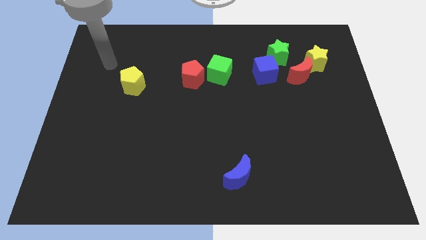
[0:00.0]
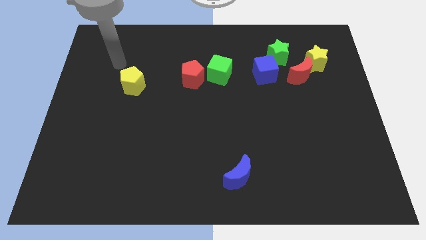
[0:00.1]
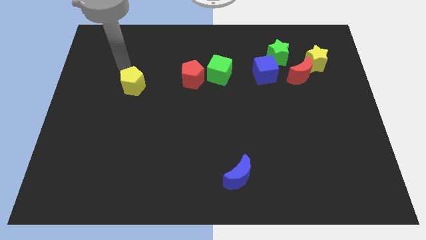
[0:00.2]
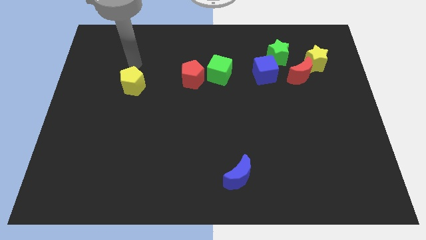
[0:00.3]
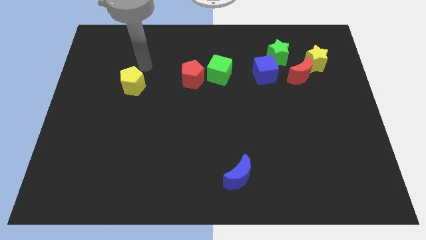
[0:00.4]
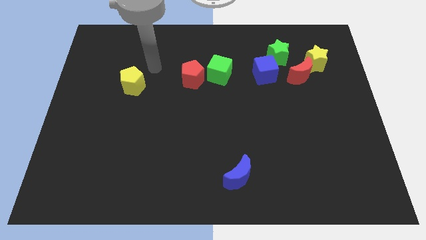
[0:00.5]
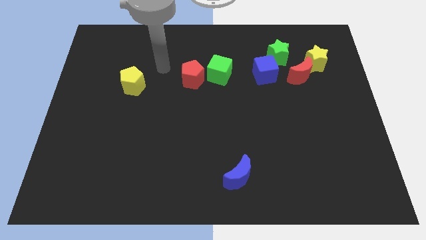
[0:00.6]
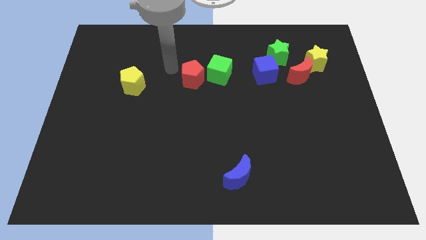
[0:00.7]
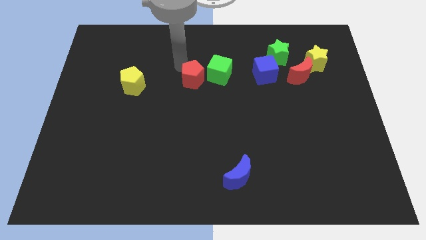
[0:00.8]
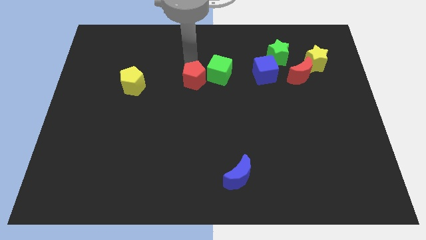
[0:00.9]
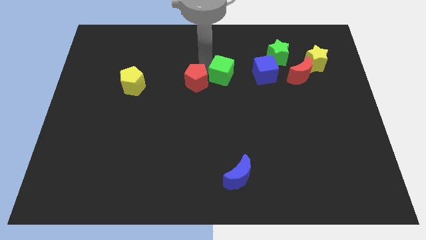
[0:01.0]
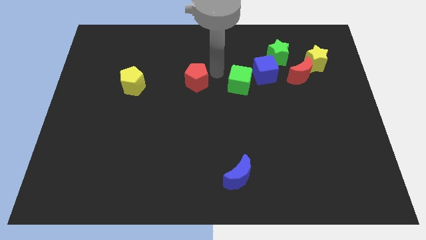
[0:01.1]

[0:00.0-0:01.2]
move the red pentagon away from the green cube

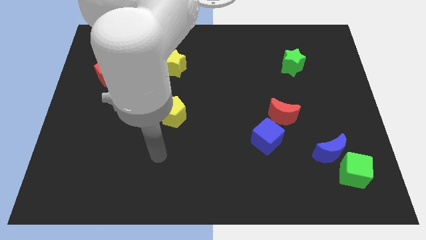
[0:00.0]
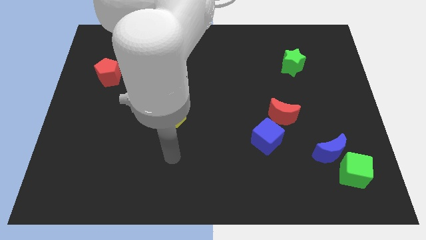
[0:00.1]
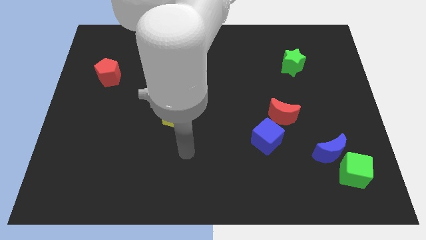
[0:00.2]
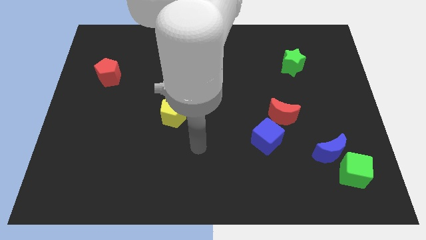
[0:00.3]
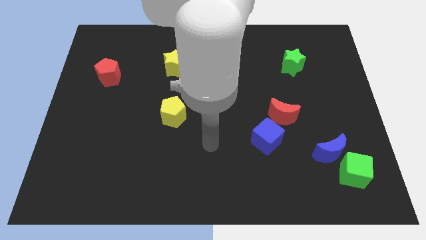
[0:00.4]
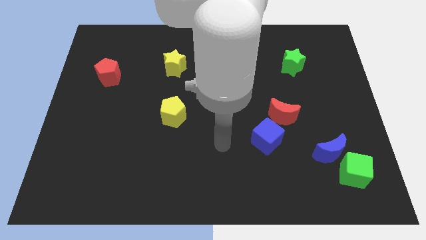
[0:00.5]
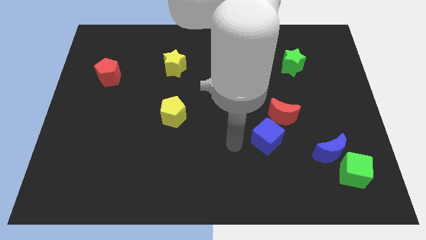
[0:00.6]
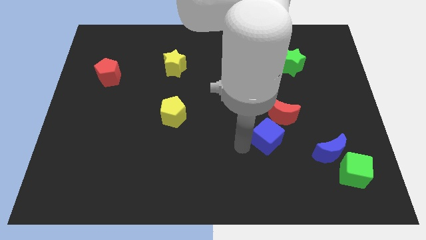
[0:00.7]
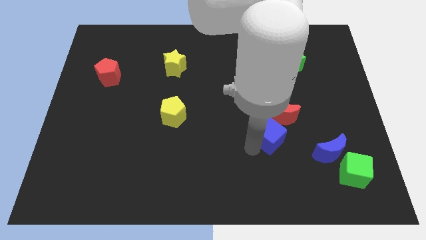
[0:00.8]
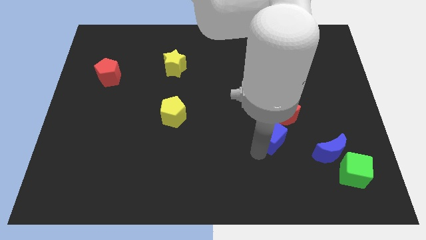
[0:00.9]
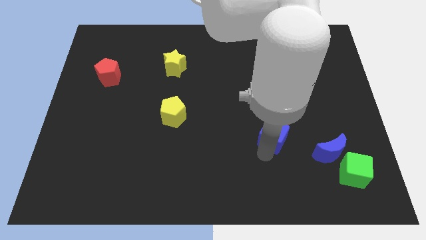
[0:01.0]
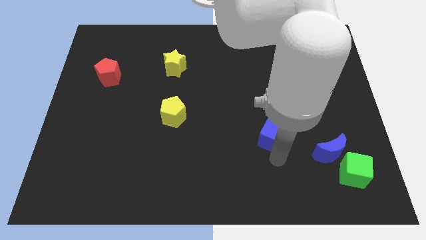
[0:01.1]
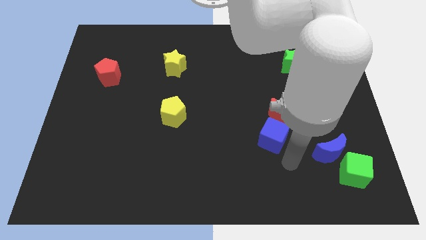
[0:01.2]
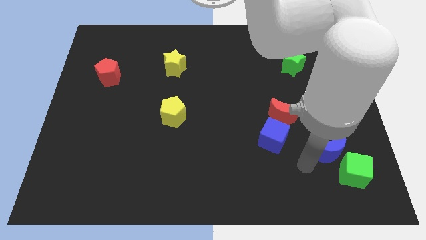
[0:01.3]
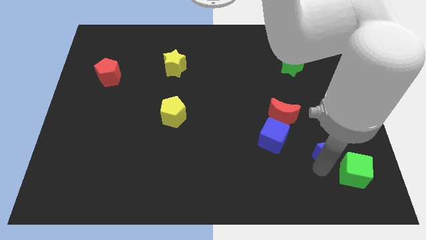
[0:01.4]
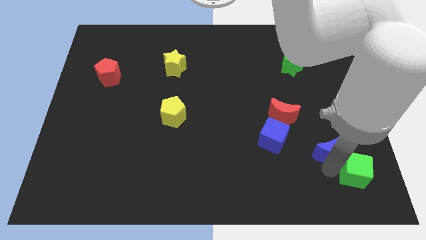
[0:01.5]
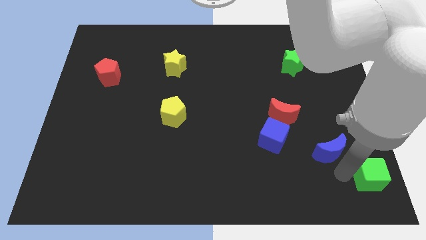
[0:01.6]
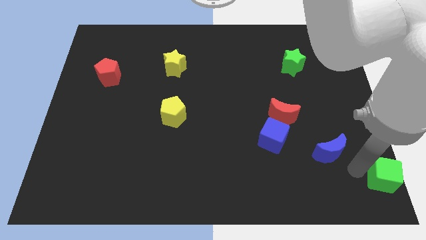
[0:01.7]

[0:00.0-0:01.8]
pull the blue moon apart from the green cube

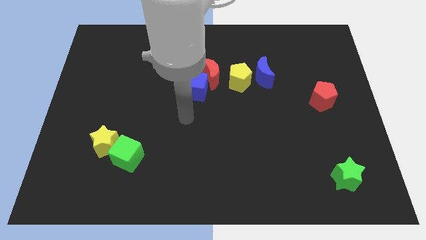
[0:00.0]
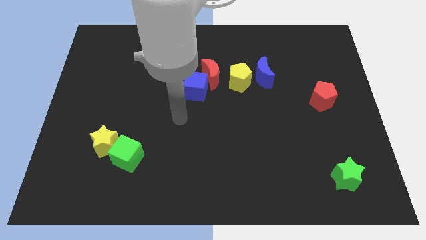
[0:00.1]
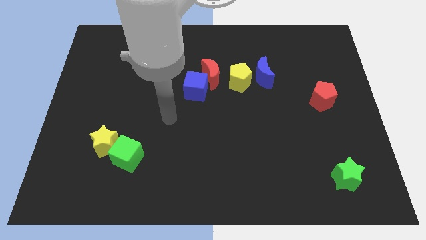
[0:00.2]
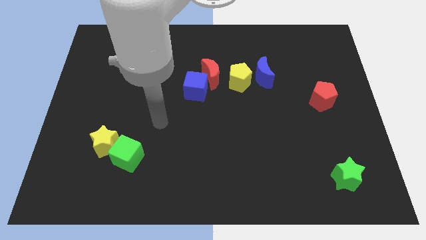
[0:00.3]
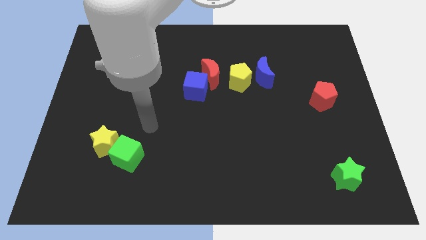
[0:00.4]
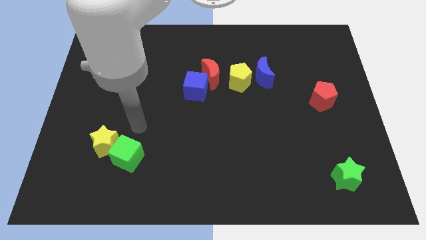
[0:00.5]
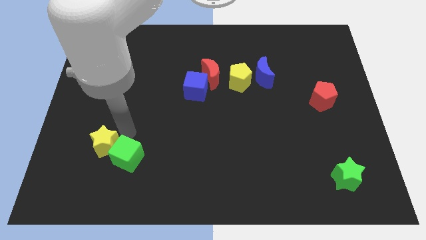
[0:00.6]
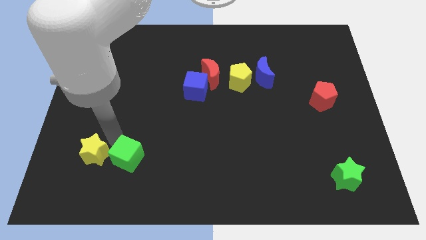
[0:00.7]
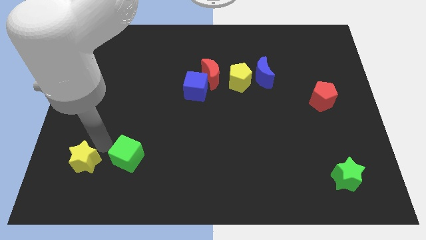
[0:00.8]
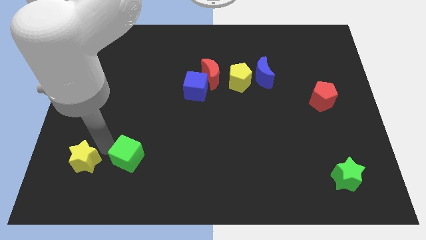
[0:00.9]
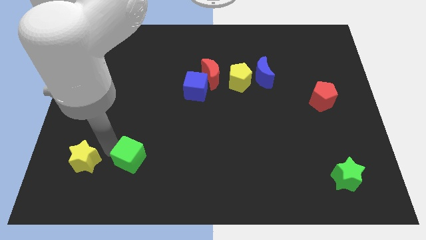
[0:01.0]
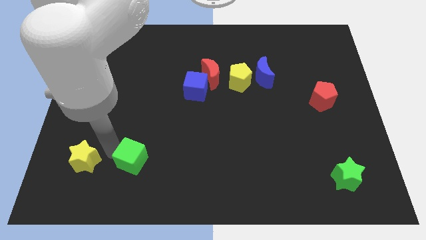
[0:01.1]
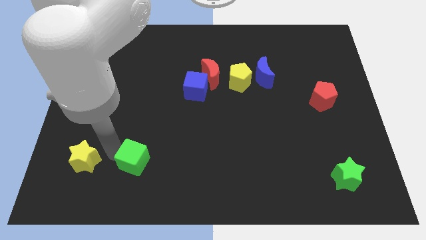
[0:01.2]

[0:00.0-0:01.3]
pull the green cube apart from the yellow star

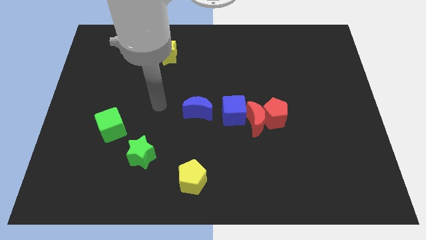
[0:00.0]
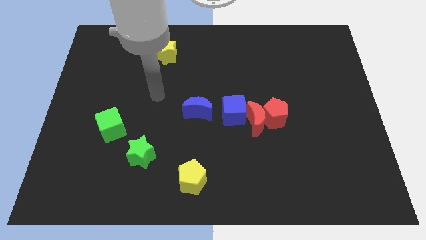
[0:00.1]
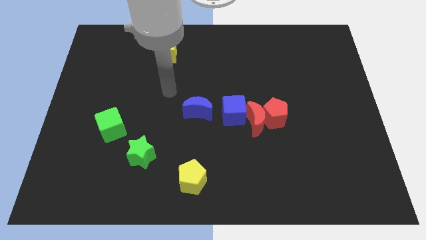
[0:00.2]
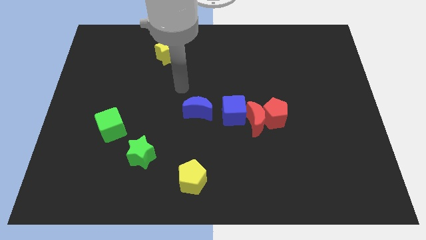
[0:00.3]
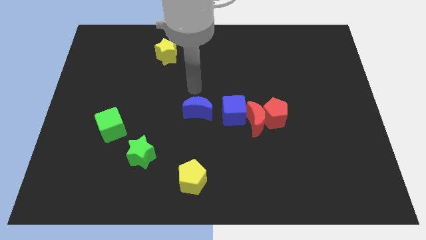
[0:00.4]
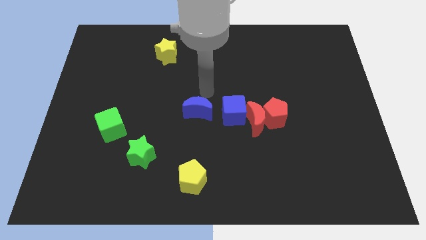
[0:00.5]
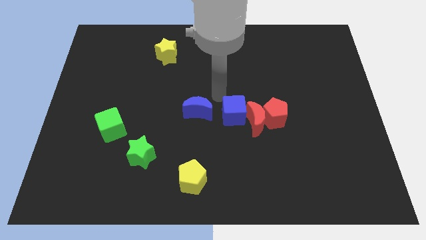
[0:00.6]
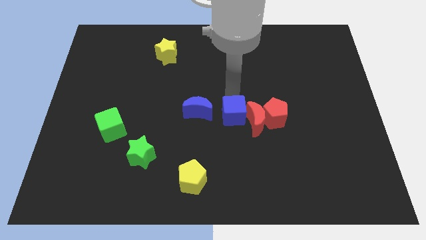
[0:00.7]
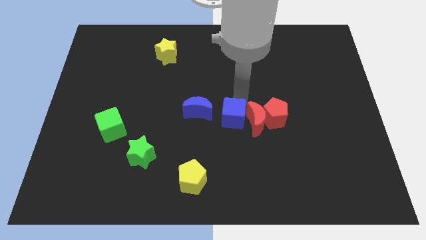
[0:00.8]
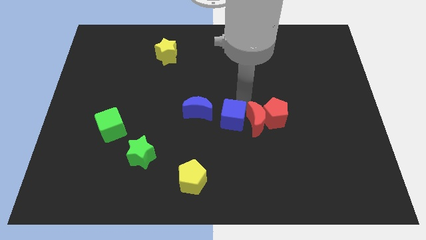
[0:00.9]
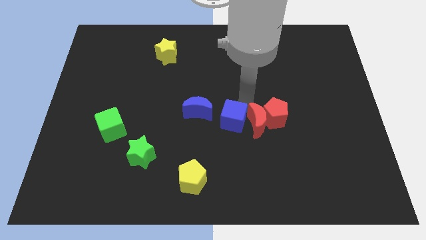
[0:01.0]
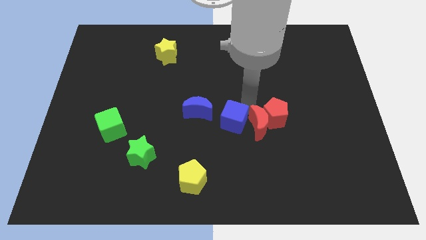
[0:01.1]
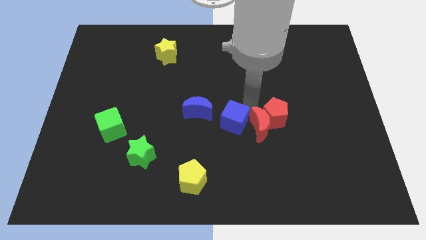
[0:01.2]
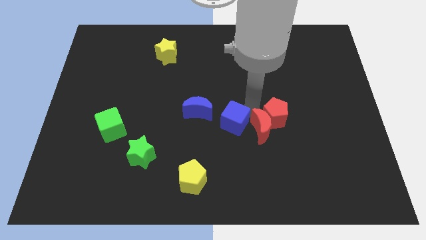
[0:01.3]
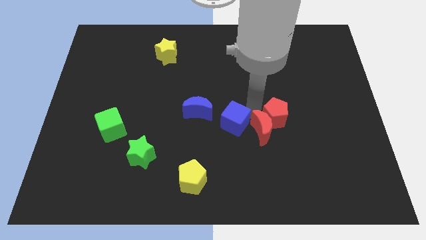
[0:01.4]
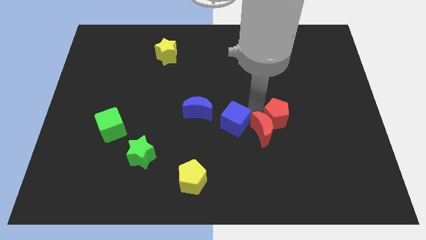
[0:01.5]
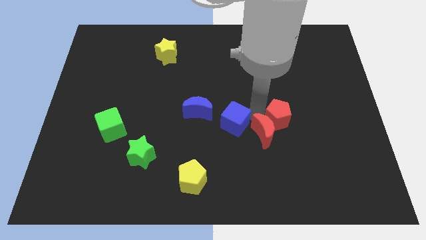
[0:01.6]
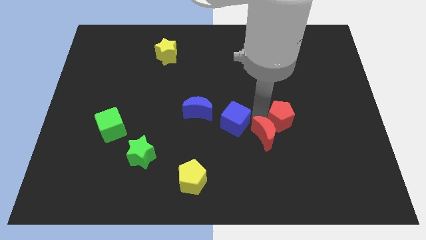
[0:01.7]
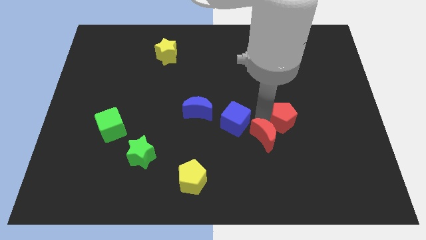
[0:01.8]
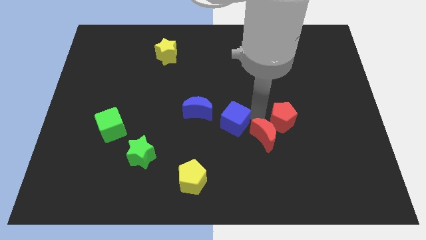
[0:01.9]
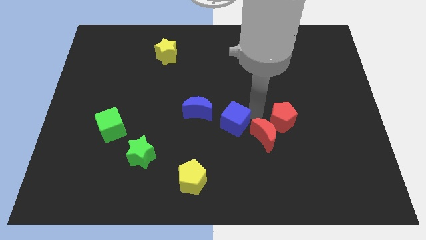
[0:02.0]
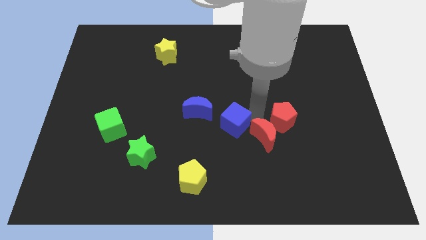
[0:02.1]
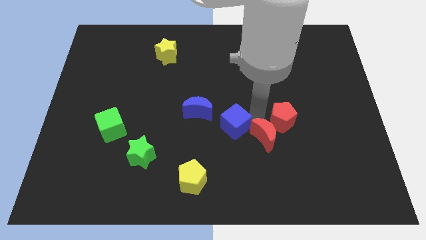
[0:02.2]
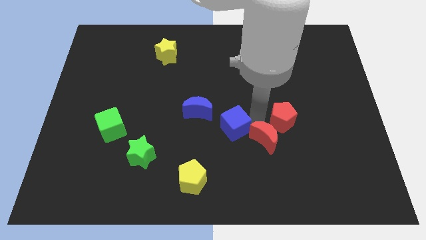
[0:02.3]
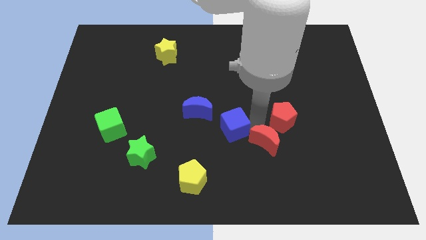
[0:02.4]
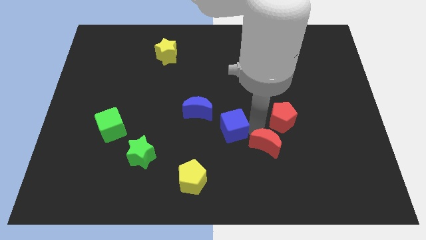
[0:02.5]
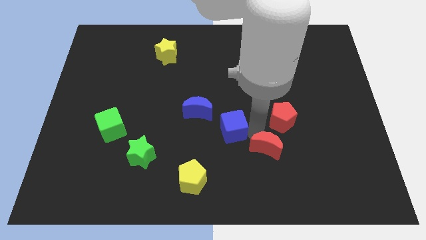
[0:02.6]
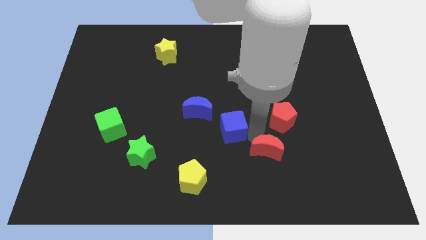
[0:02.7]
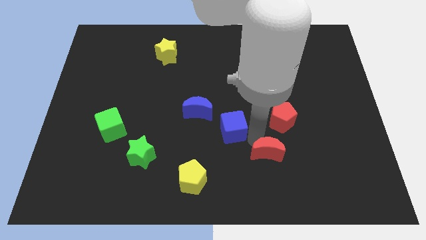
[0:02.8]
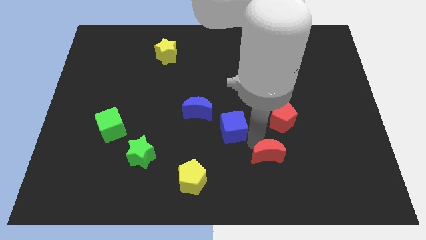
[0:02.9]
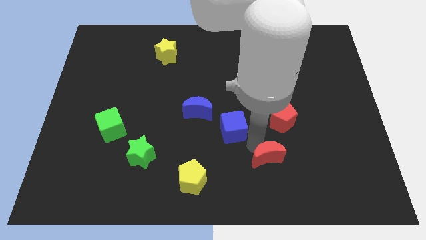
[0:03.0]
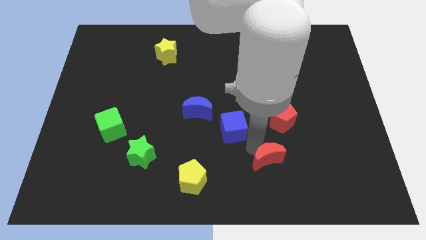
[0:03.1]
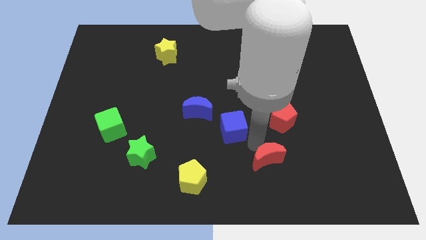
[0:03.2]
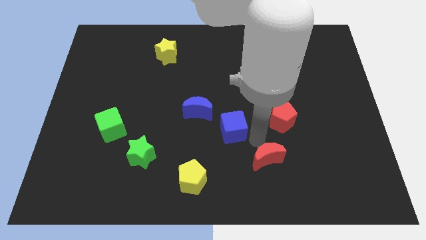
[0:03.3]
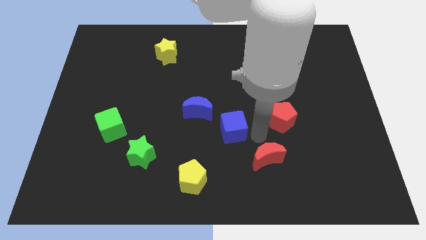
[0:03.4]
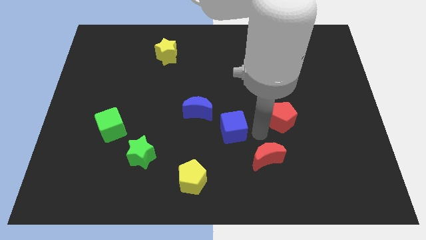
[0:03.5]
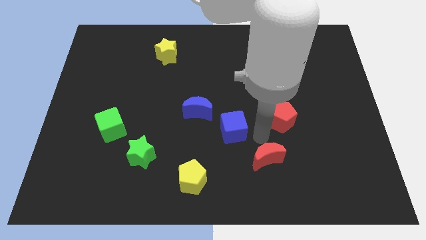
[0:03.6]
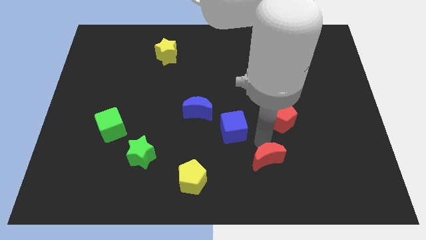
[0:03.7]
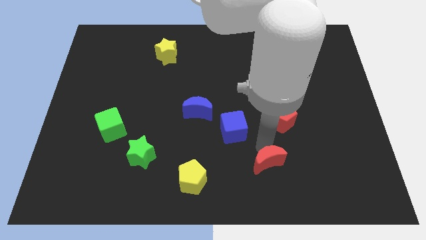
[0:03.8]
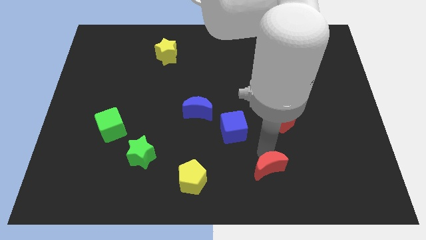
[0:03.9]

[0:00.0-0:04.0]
separate the red moon from the red pentagon and blue cube

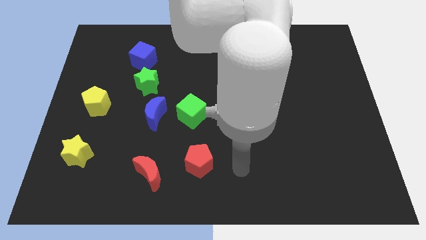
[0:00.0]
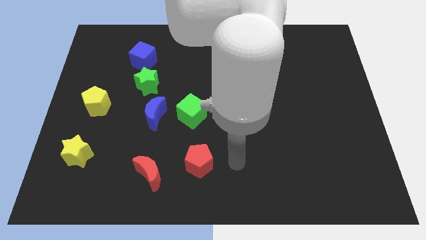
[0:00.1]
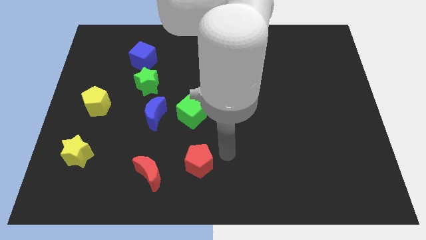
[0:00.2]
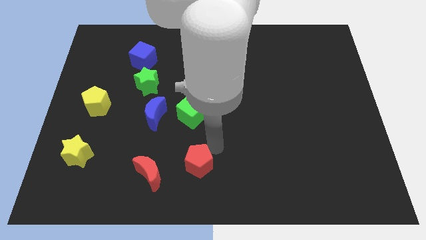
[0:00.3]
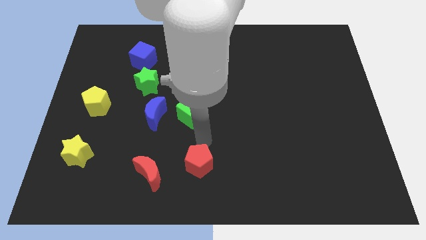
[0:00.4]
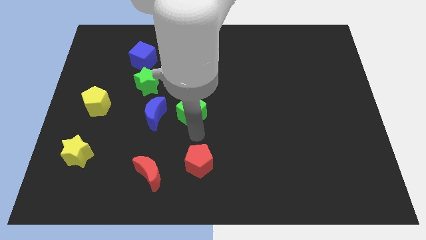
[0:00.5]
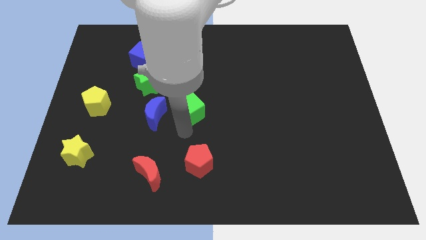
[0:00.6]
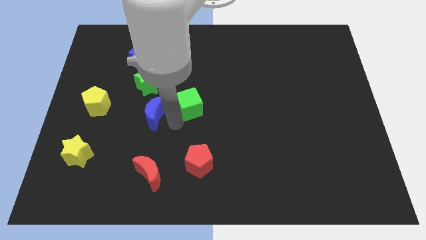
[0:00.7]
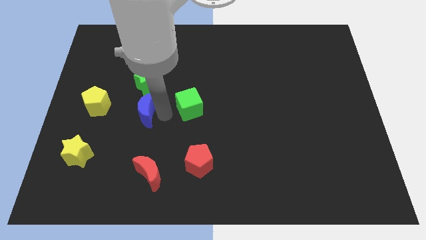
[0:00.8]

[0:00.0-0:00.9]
separate the green cube from the blue moon

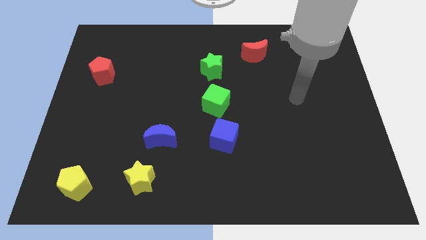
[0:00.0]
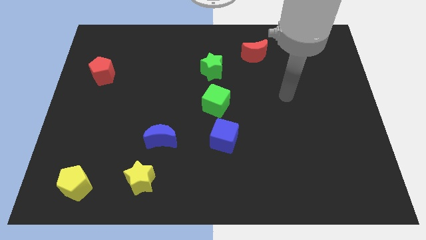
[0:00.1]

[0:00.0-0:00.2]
move the blue cube away from the green cube
